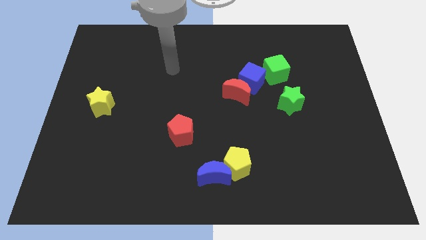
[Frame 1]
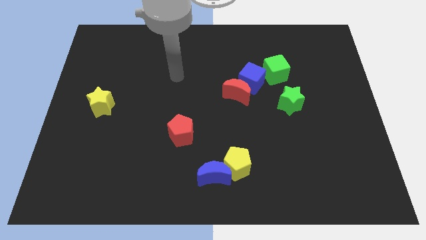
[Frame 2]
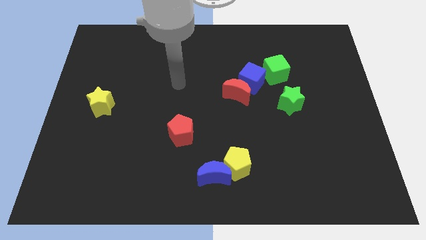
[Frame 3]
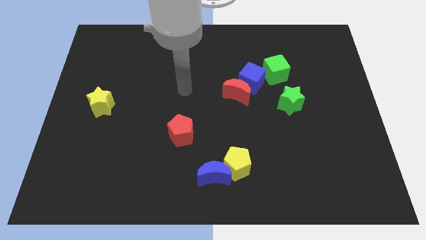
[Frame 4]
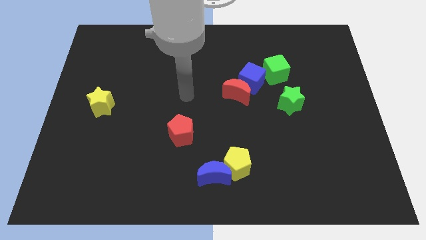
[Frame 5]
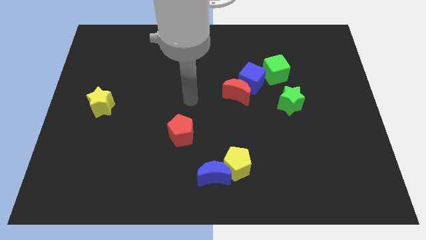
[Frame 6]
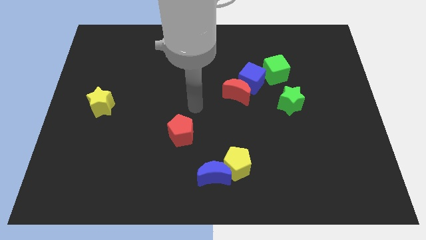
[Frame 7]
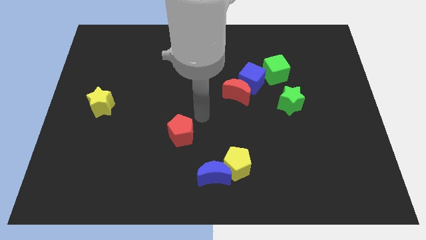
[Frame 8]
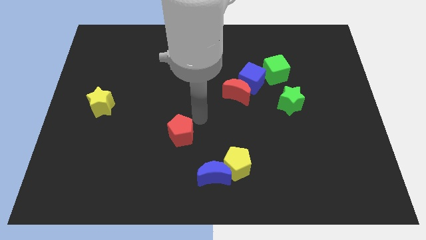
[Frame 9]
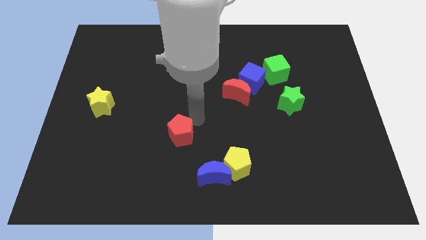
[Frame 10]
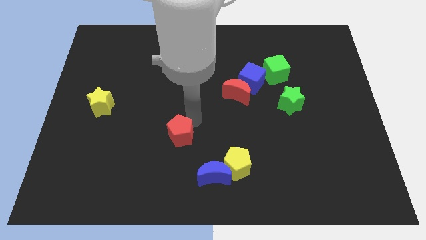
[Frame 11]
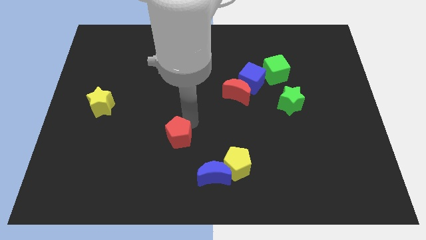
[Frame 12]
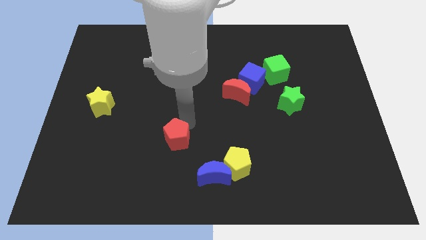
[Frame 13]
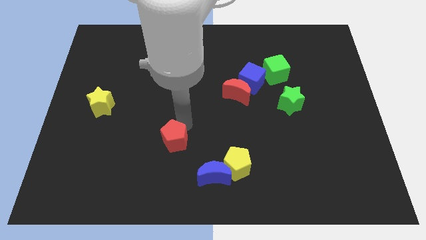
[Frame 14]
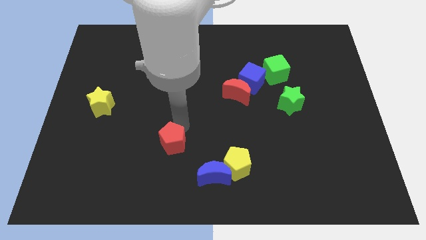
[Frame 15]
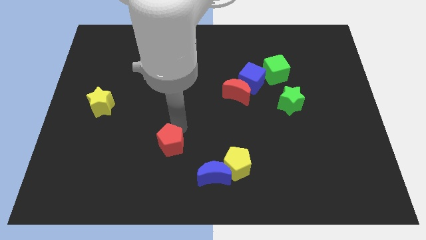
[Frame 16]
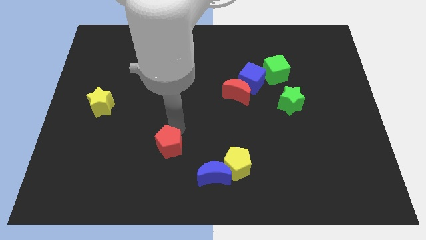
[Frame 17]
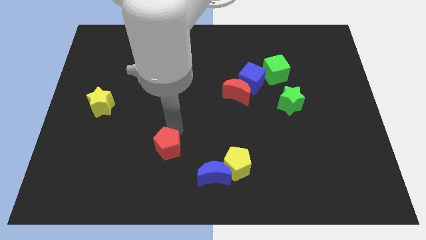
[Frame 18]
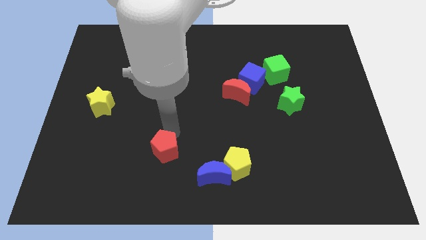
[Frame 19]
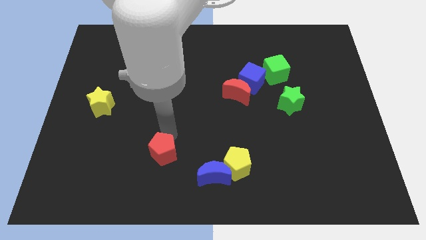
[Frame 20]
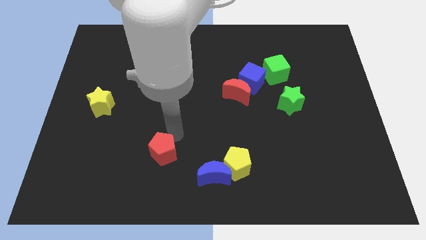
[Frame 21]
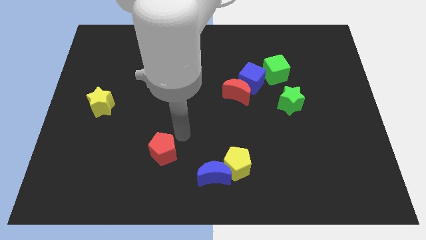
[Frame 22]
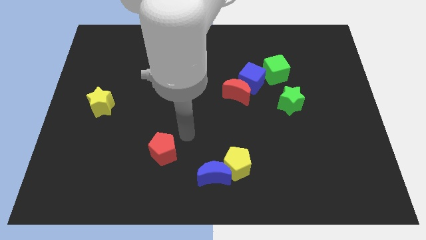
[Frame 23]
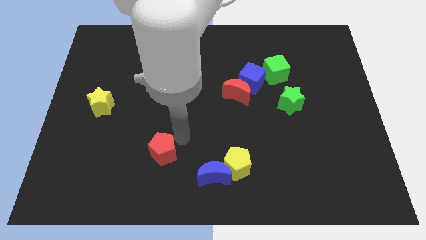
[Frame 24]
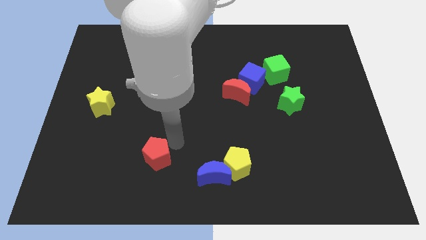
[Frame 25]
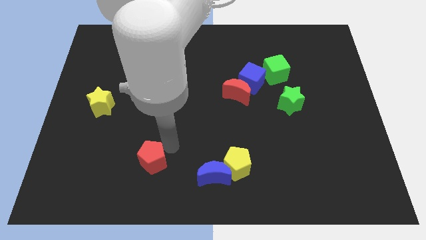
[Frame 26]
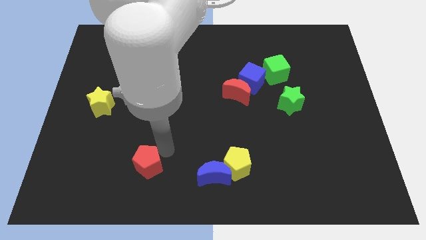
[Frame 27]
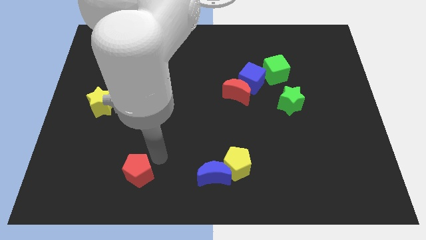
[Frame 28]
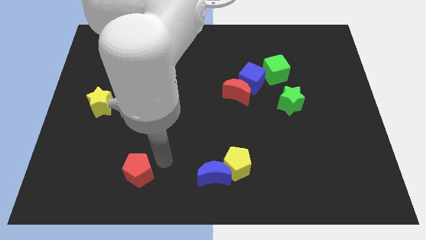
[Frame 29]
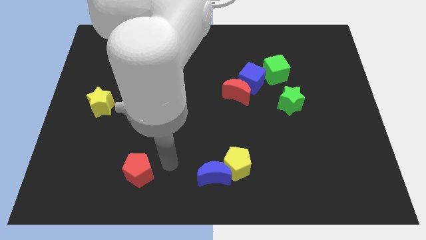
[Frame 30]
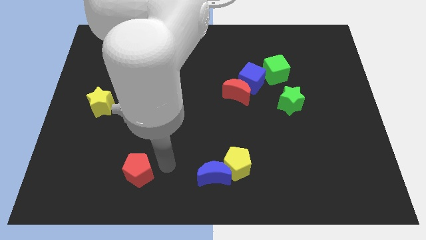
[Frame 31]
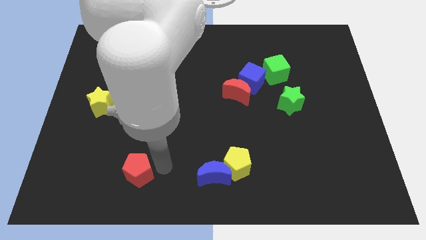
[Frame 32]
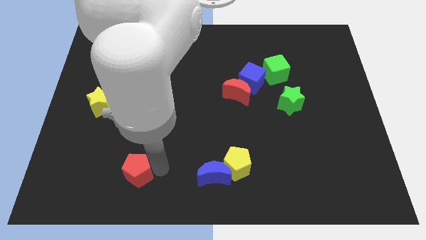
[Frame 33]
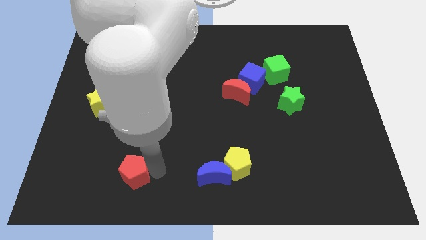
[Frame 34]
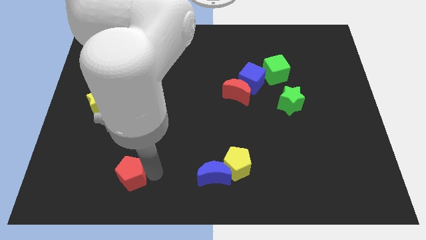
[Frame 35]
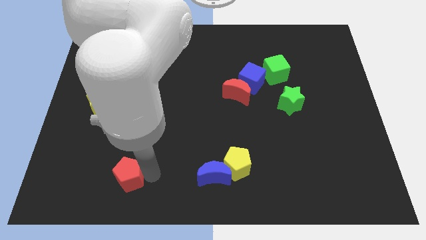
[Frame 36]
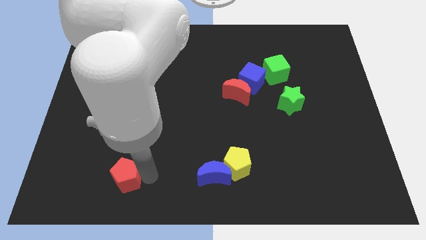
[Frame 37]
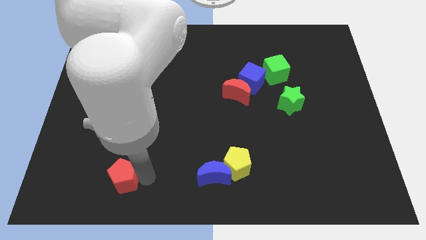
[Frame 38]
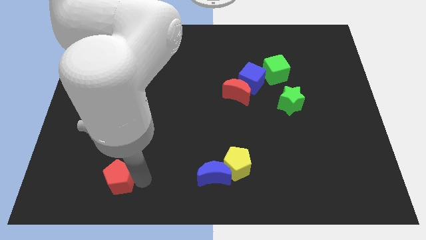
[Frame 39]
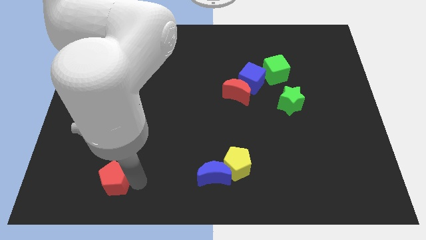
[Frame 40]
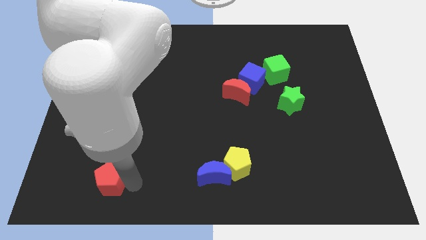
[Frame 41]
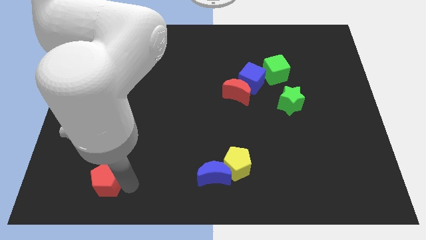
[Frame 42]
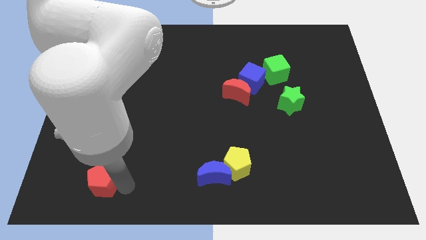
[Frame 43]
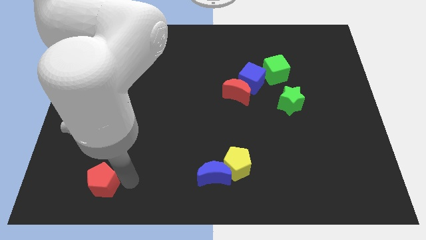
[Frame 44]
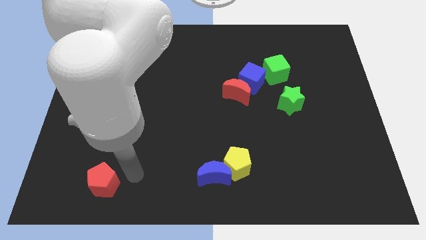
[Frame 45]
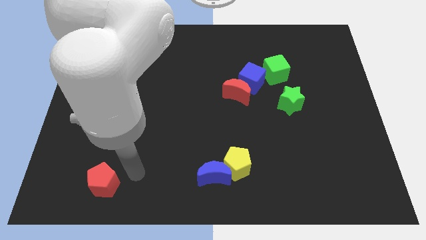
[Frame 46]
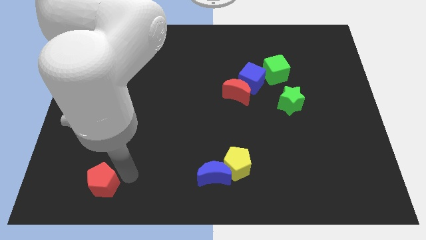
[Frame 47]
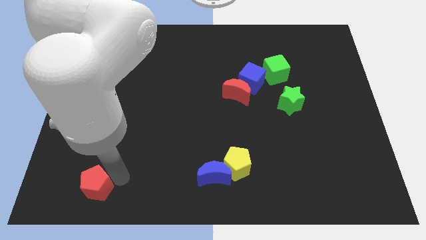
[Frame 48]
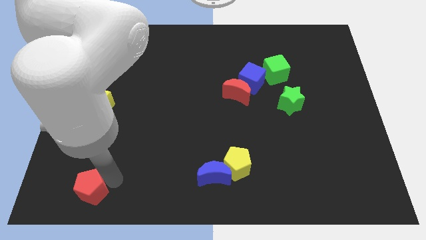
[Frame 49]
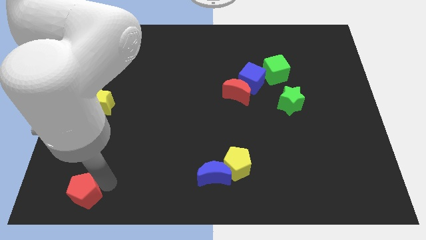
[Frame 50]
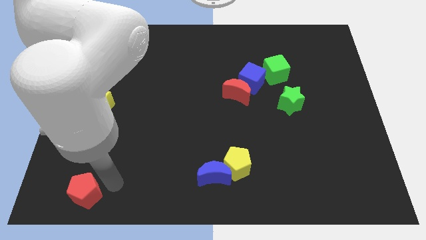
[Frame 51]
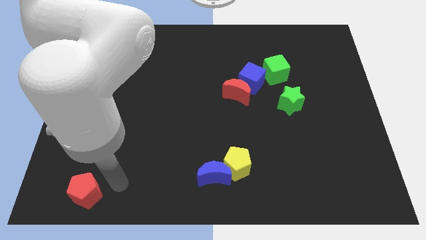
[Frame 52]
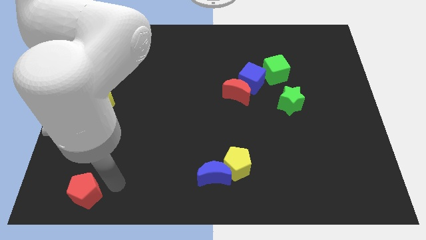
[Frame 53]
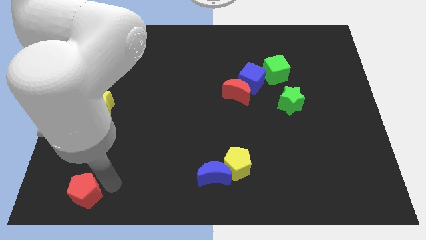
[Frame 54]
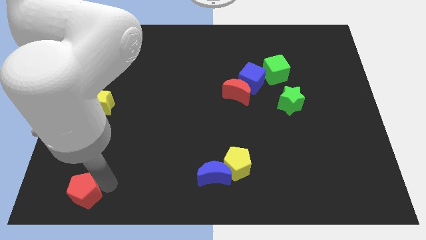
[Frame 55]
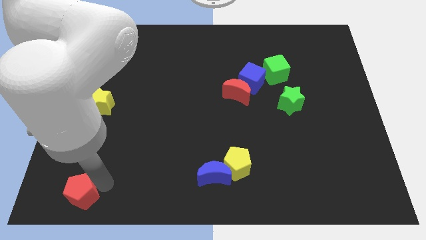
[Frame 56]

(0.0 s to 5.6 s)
move the red pentagon to the bottom left
